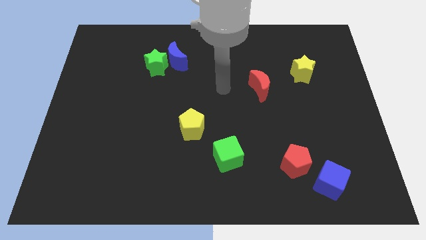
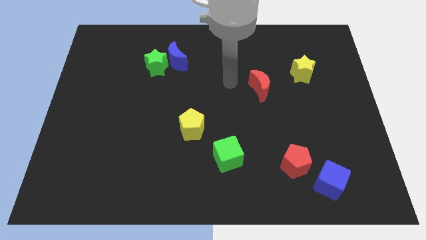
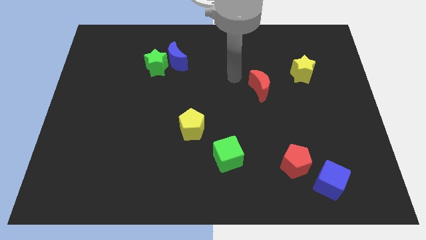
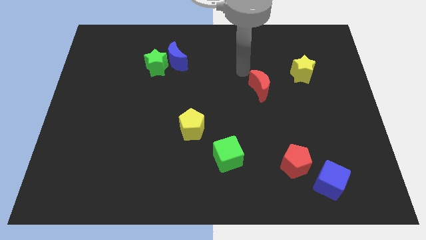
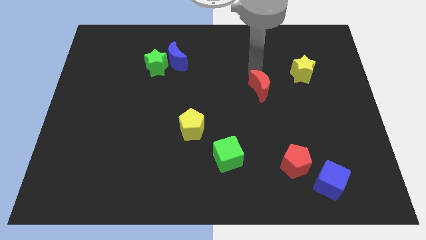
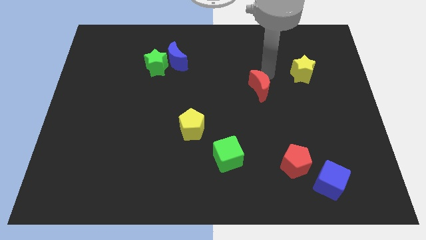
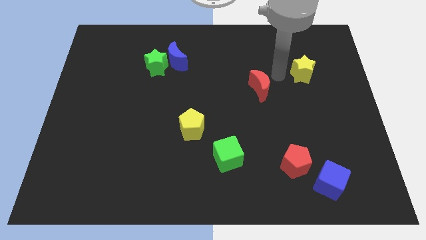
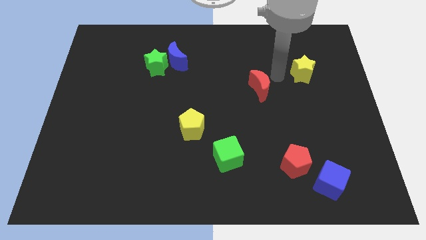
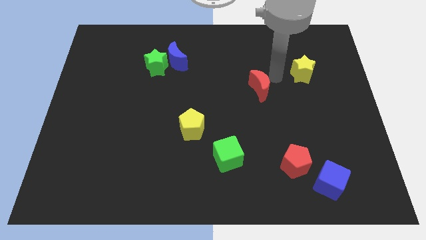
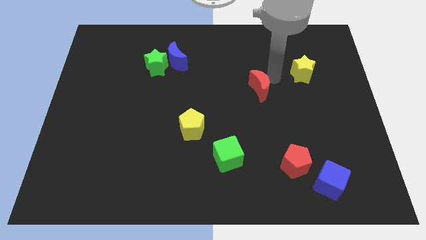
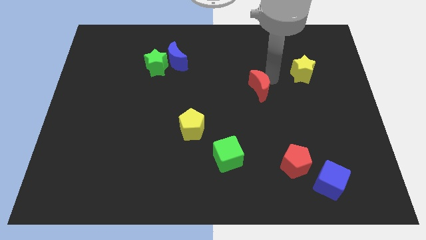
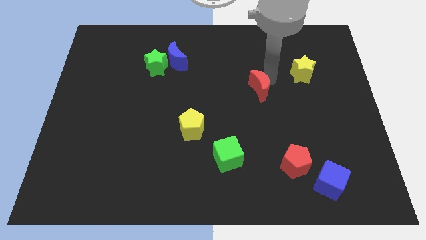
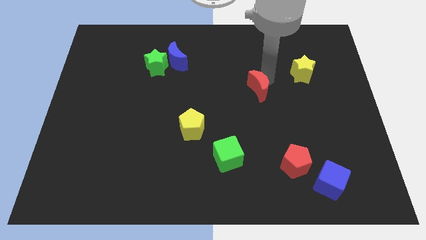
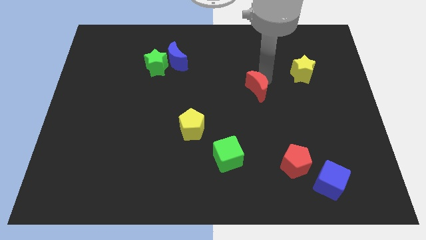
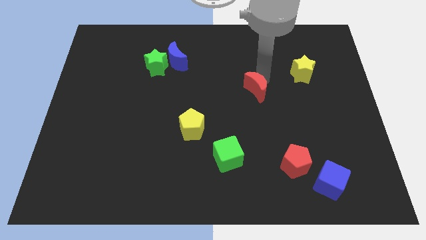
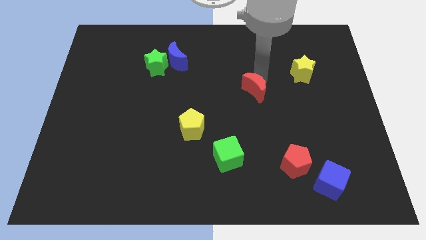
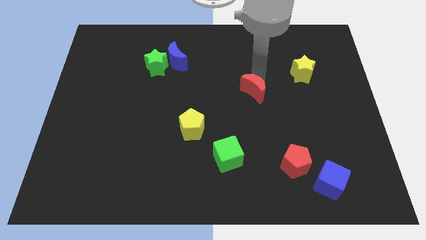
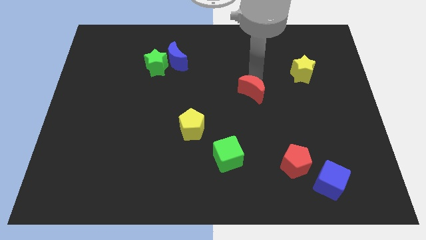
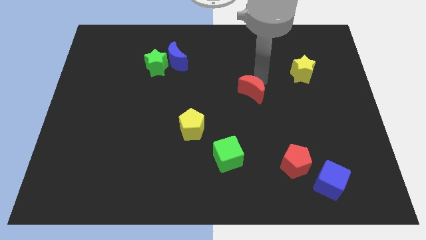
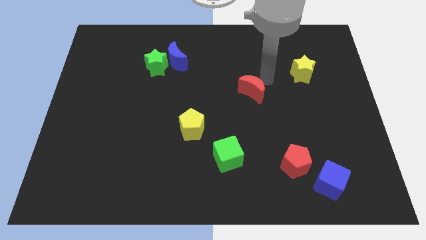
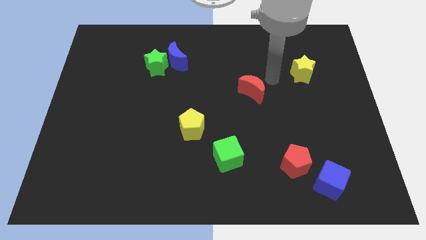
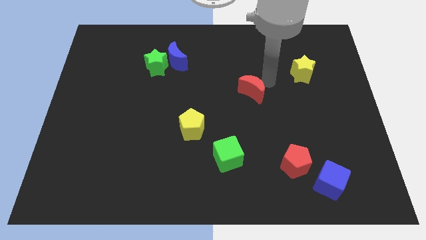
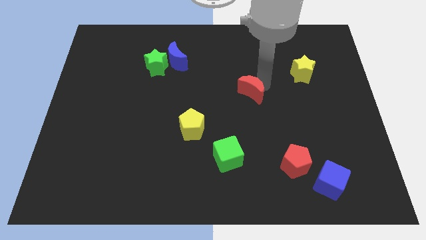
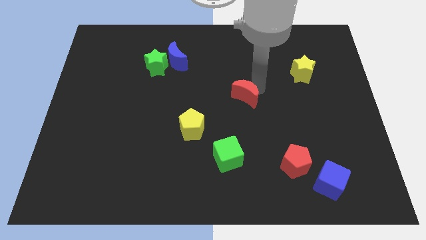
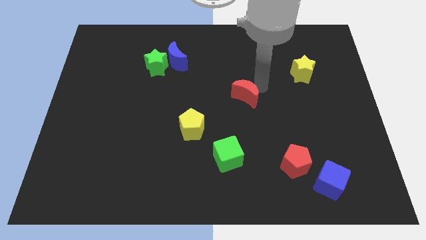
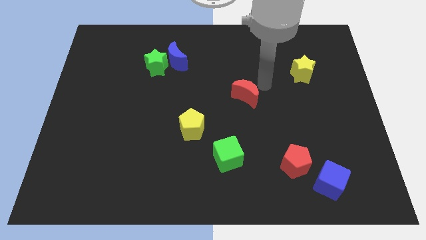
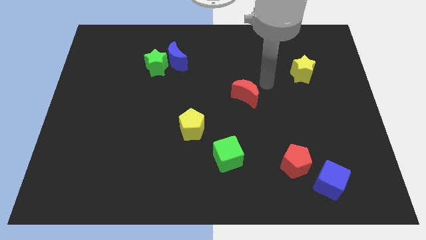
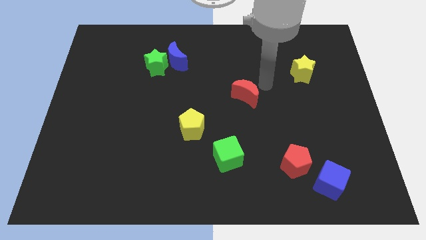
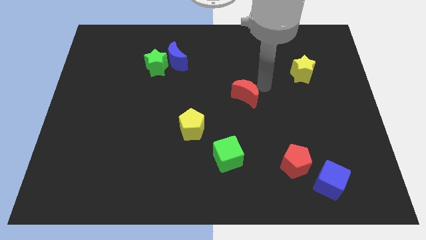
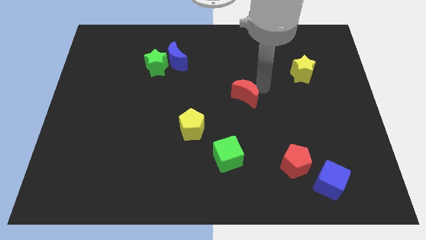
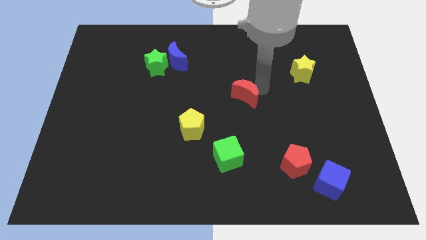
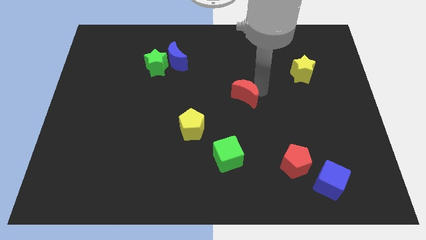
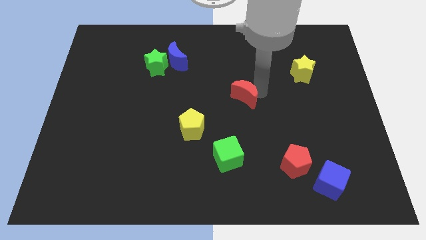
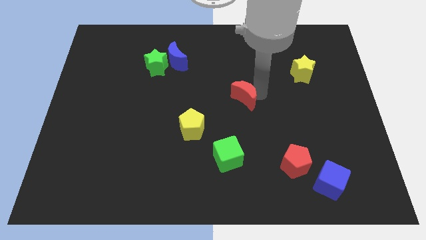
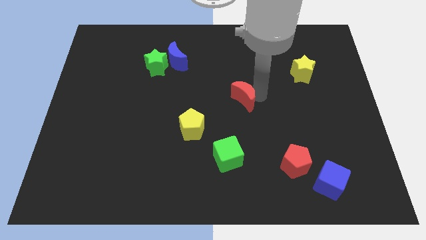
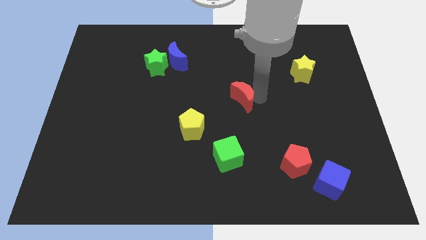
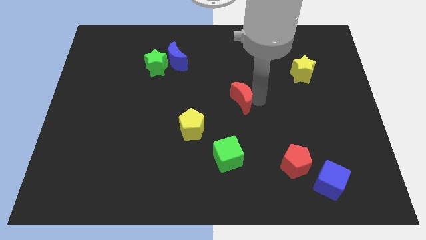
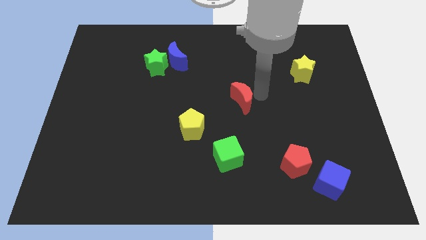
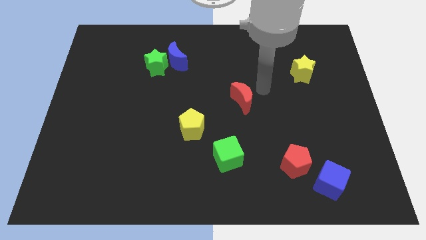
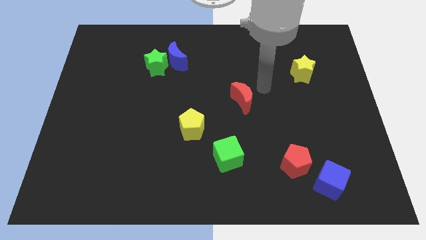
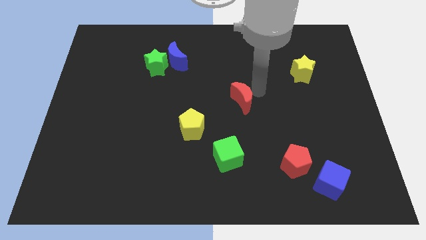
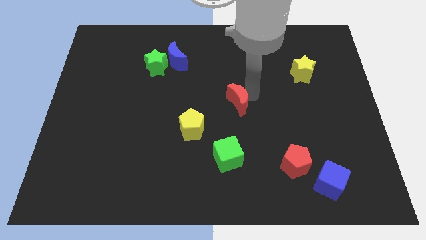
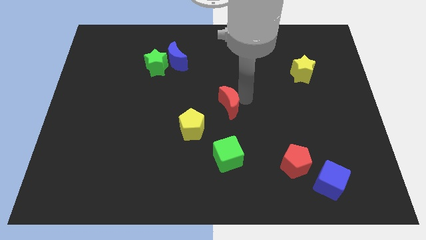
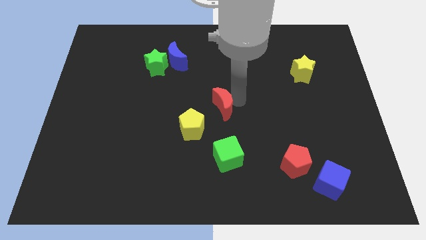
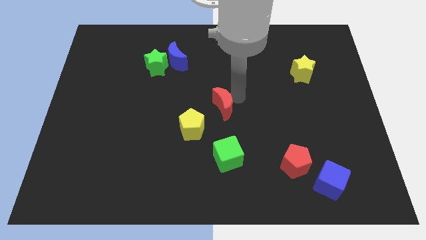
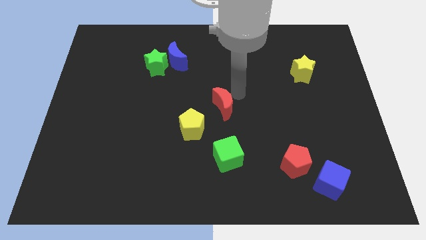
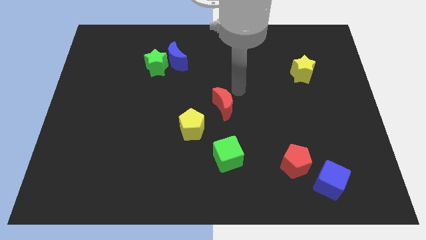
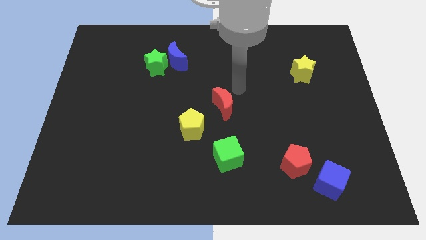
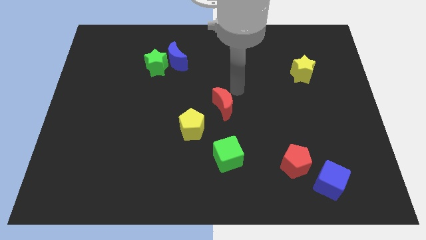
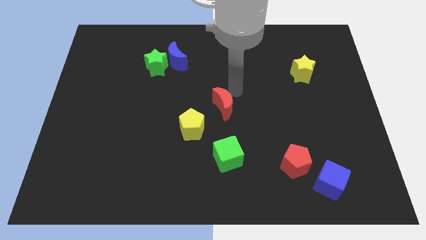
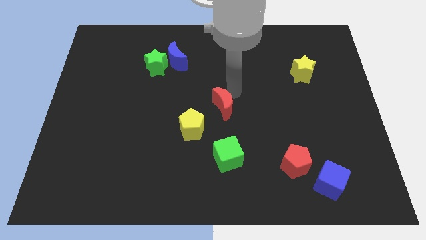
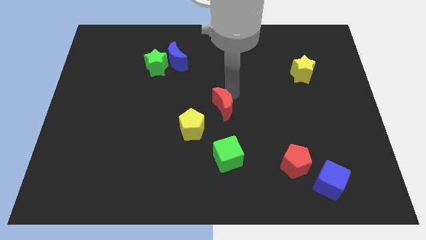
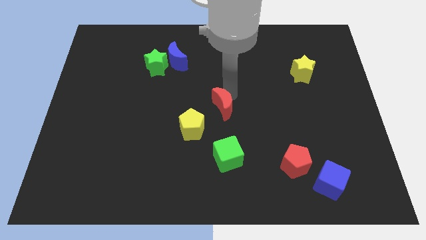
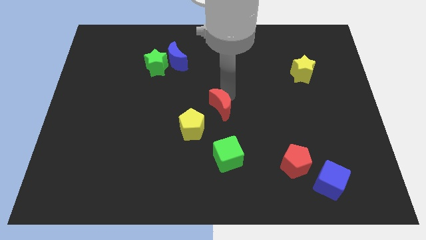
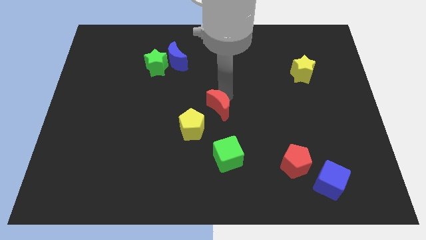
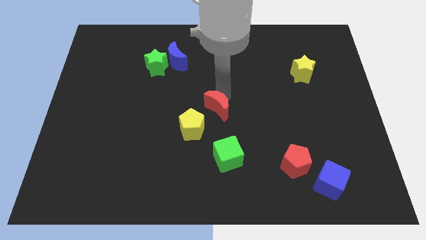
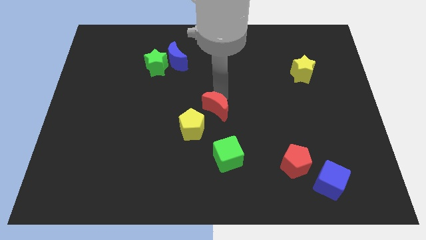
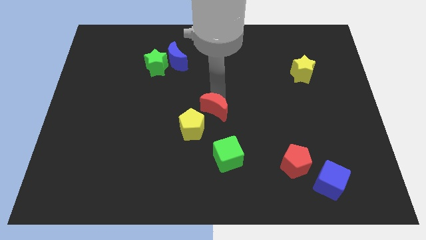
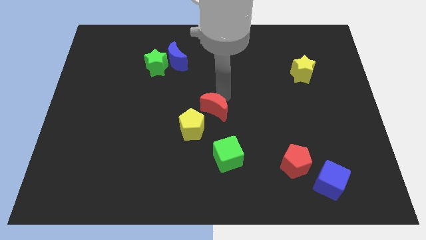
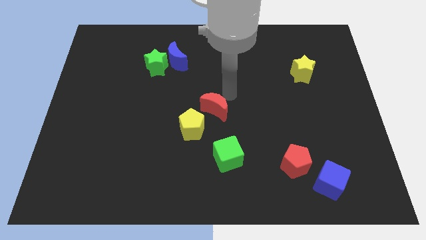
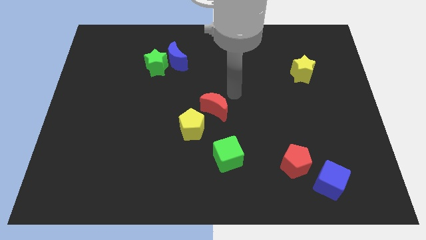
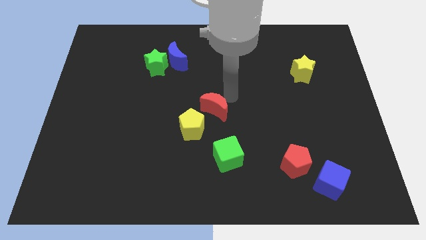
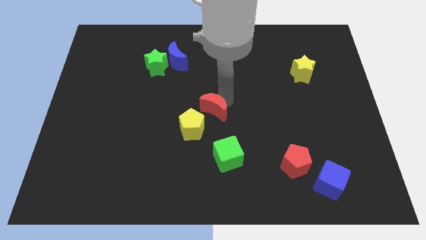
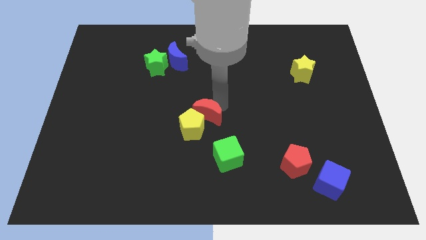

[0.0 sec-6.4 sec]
put the red moon next to the yellow pentagon

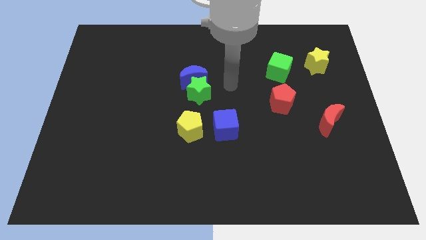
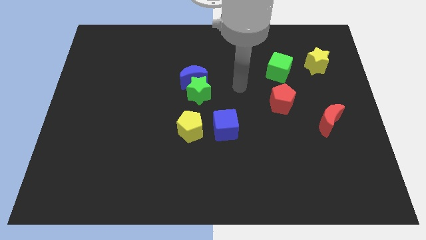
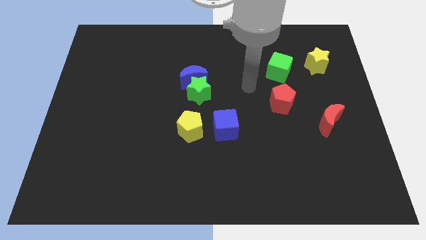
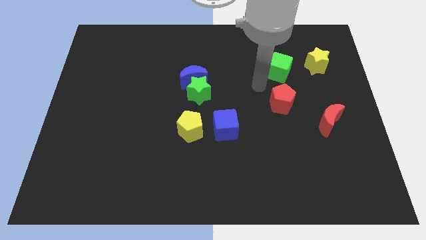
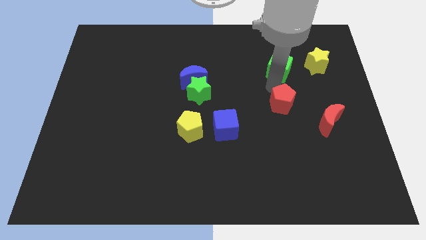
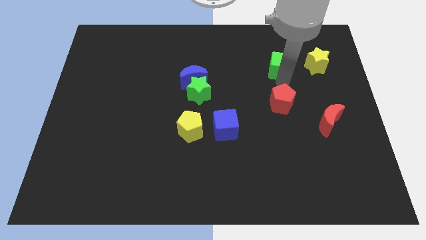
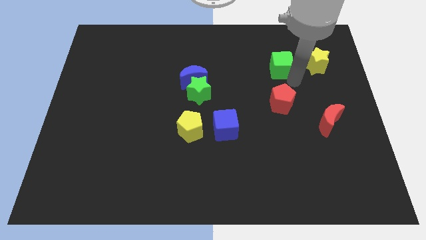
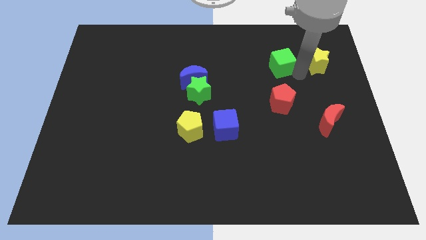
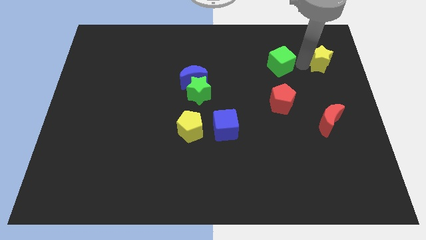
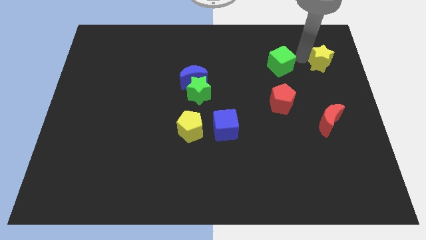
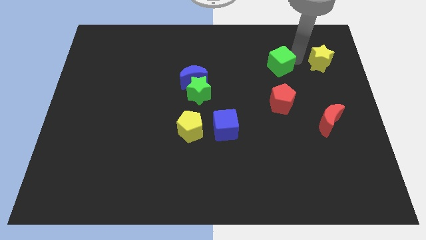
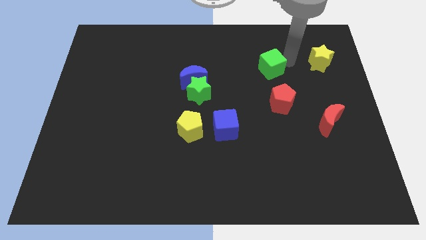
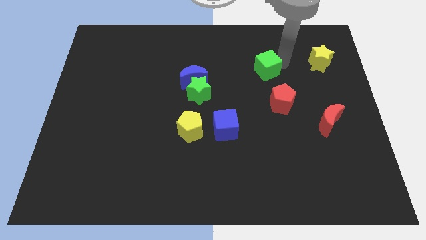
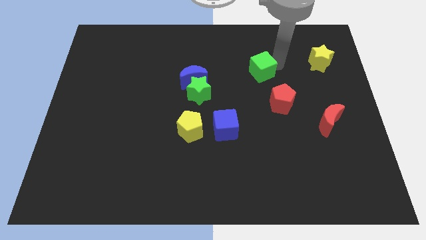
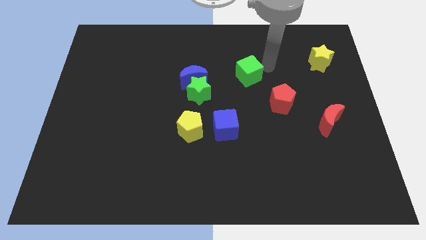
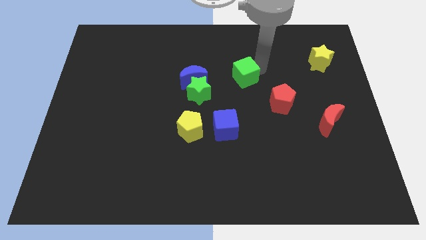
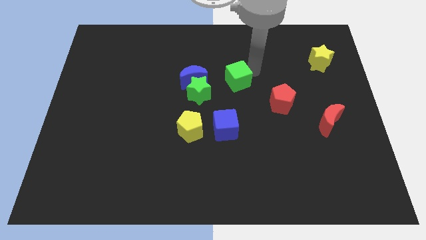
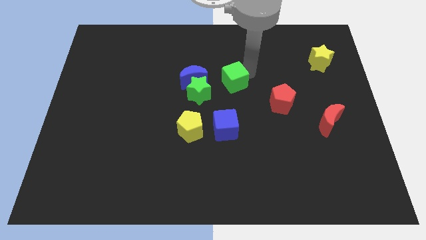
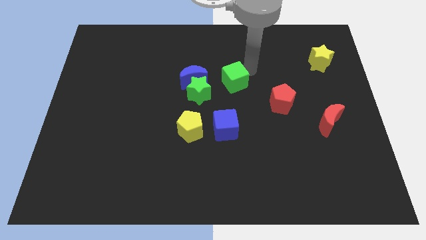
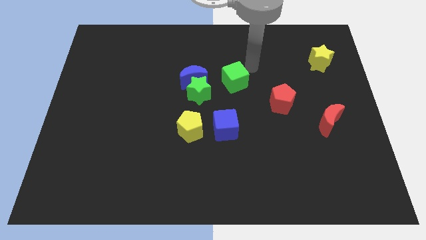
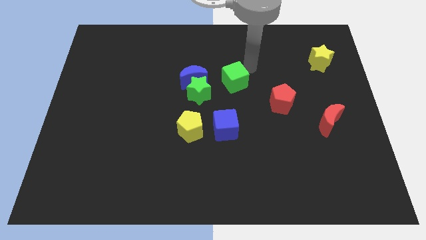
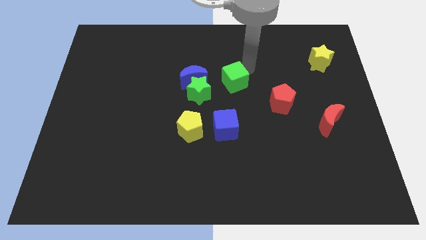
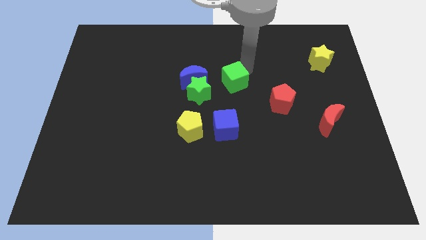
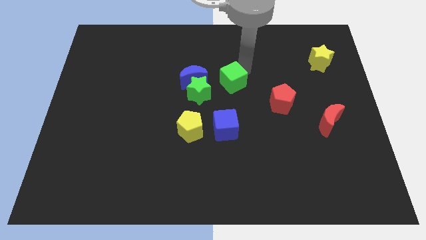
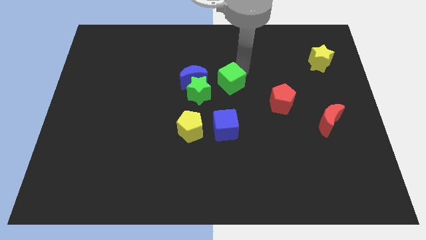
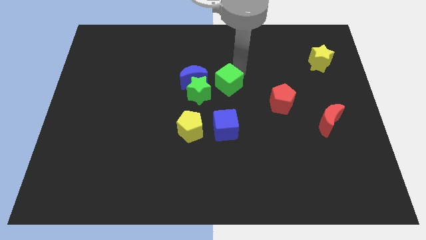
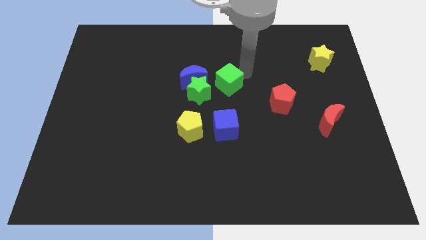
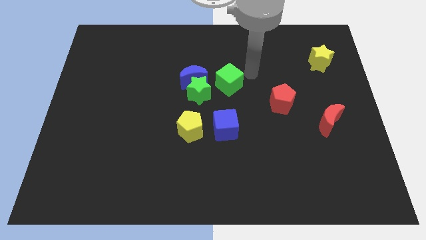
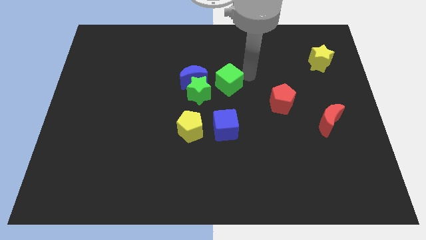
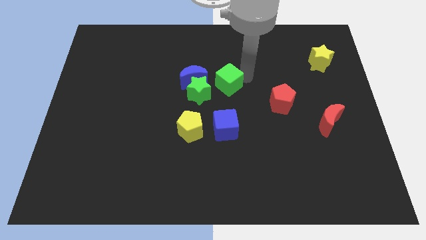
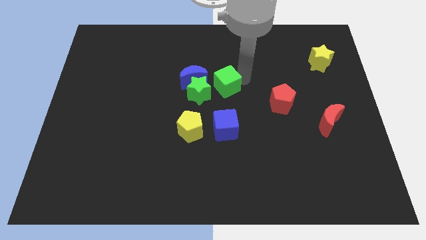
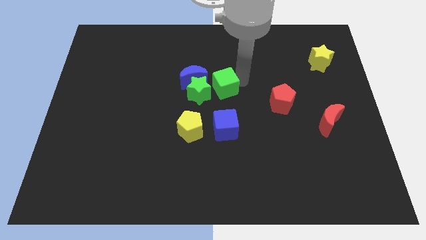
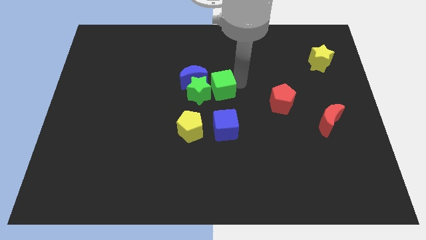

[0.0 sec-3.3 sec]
move the green cube next to the green star
